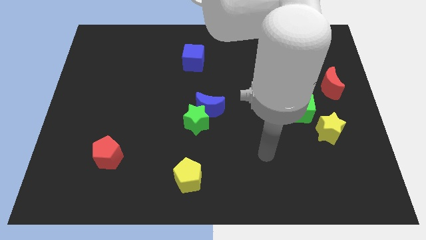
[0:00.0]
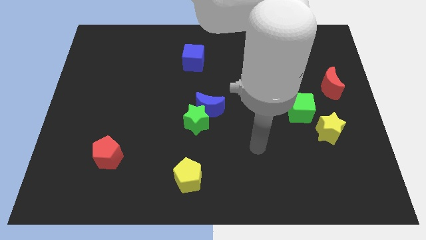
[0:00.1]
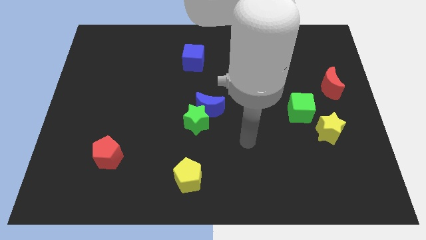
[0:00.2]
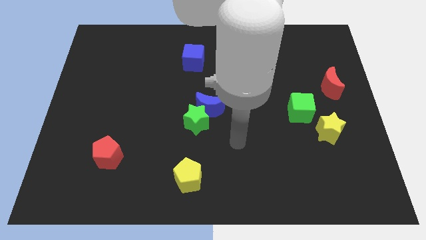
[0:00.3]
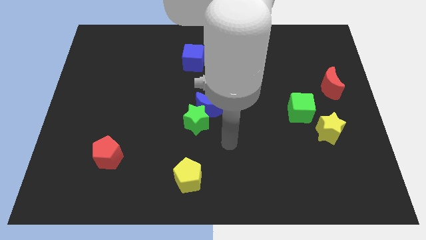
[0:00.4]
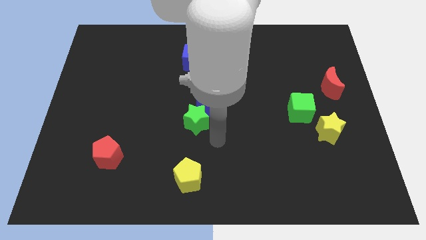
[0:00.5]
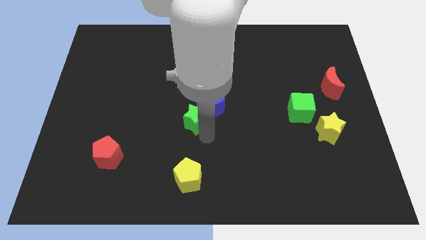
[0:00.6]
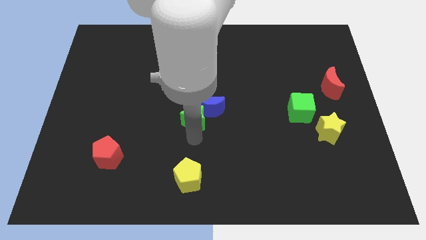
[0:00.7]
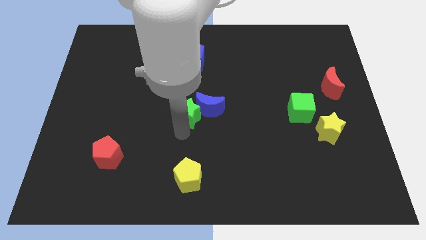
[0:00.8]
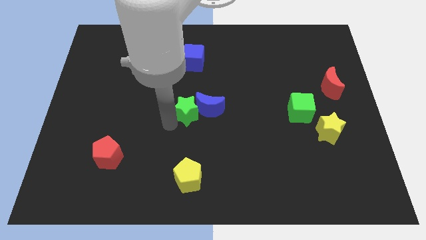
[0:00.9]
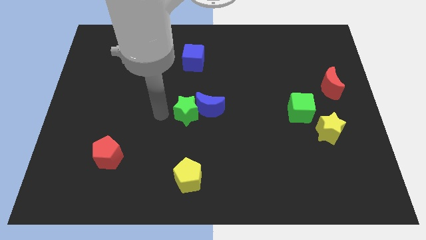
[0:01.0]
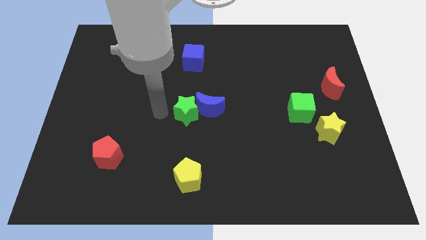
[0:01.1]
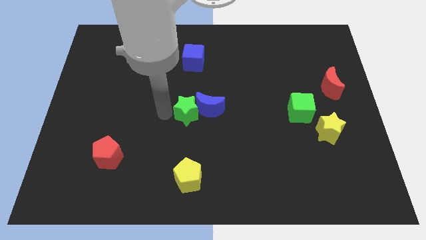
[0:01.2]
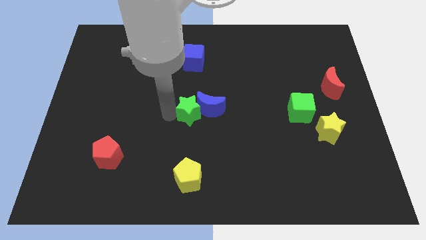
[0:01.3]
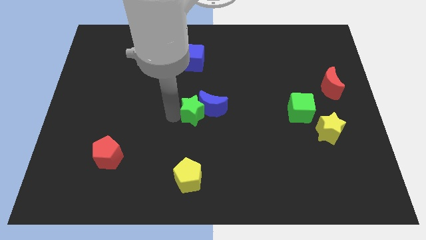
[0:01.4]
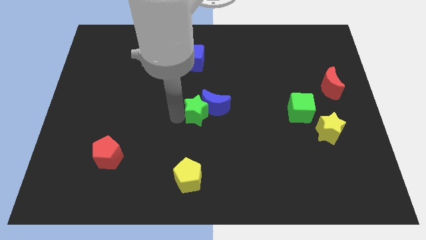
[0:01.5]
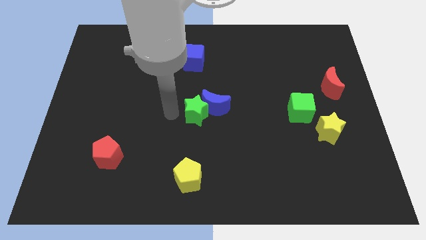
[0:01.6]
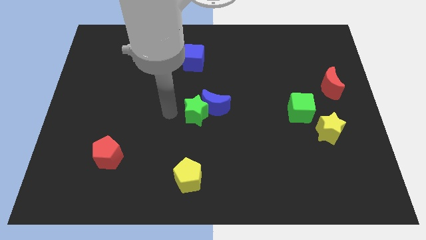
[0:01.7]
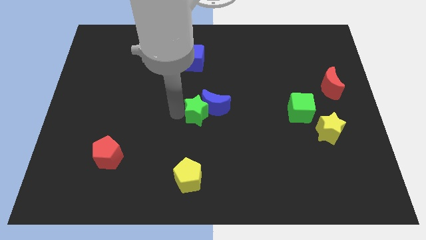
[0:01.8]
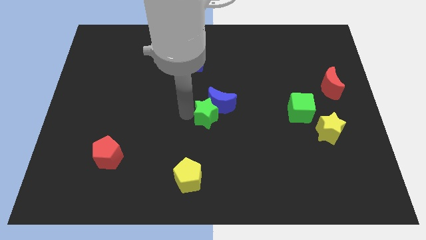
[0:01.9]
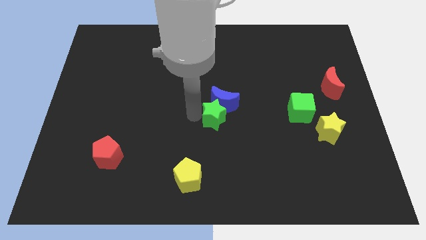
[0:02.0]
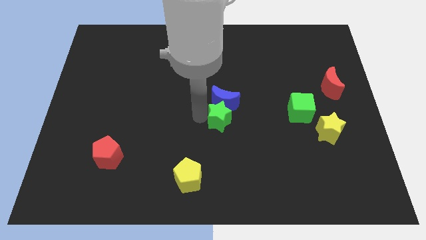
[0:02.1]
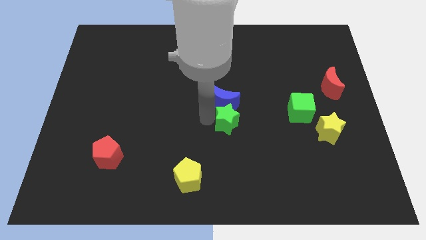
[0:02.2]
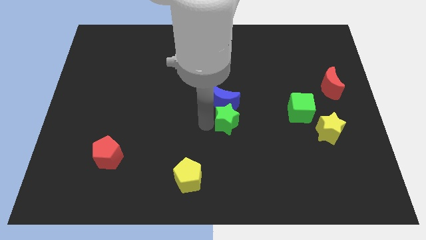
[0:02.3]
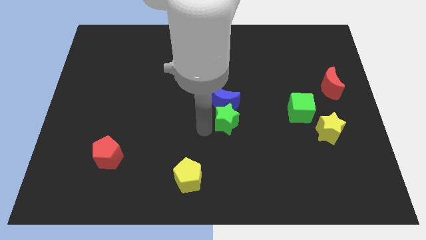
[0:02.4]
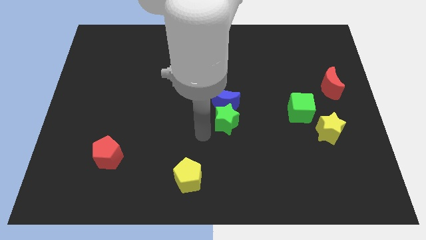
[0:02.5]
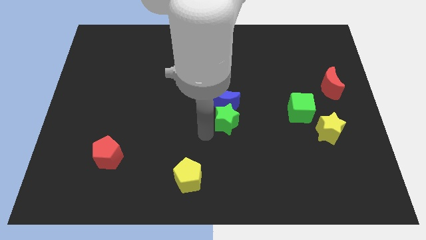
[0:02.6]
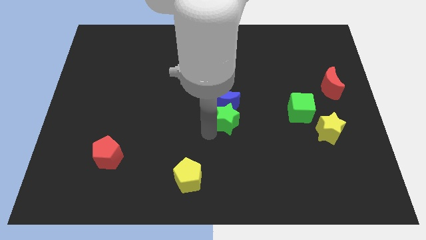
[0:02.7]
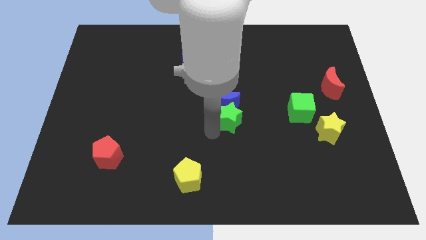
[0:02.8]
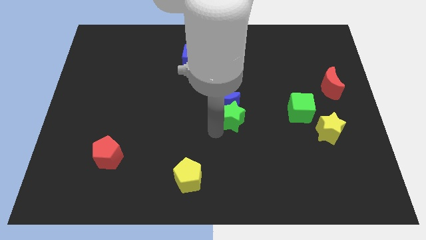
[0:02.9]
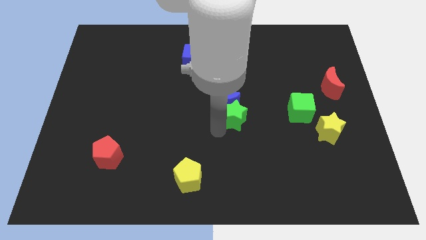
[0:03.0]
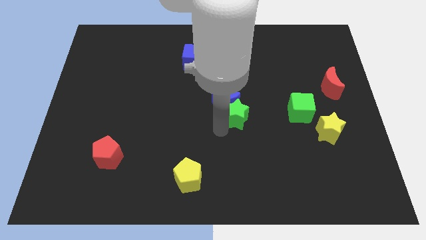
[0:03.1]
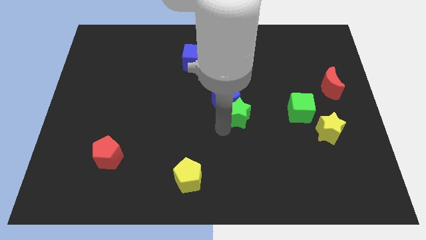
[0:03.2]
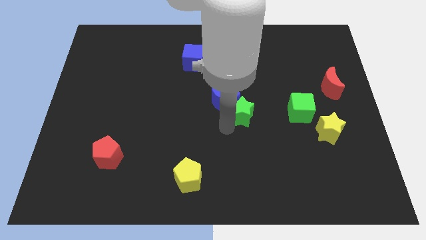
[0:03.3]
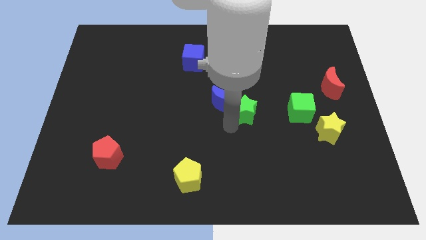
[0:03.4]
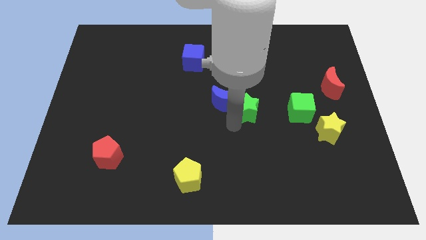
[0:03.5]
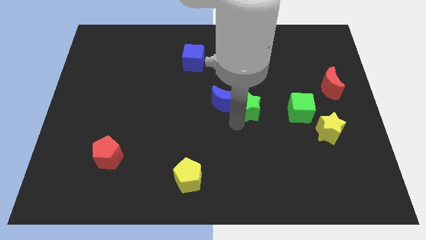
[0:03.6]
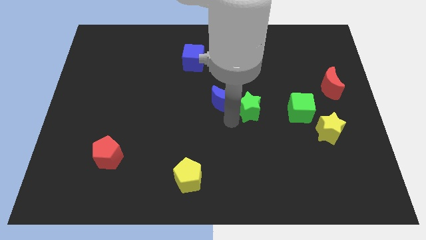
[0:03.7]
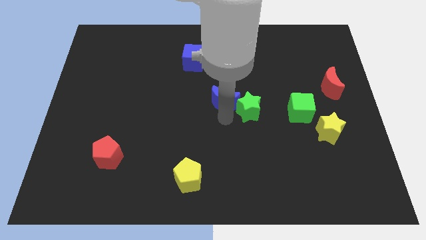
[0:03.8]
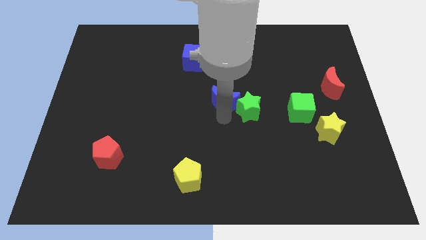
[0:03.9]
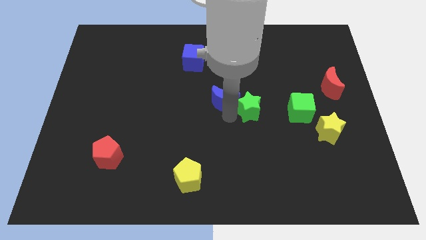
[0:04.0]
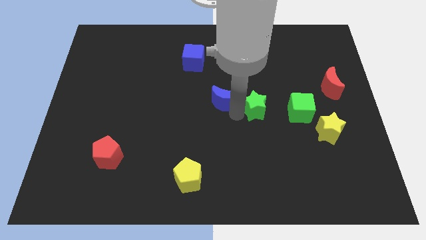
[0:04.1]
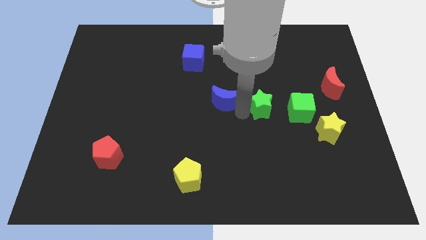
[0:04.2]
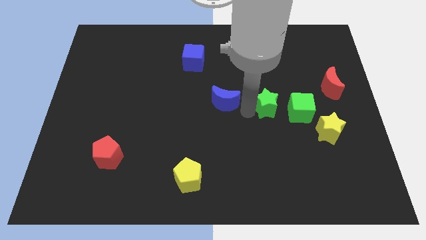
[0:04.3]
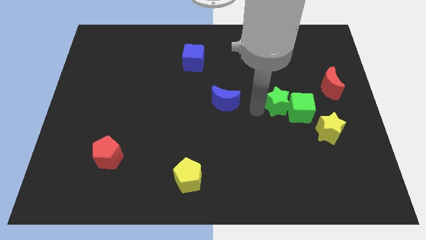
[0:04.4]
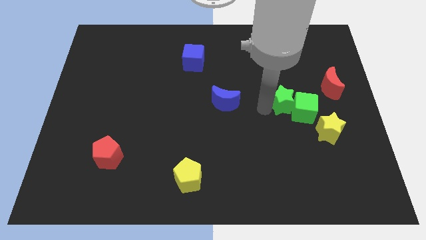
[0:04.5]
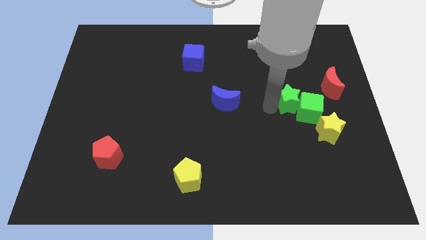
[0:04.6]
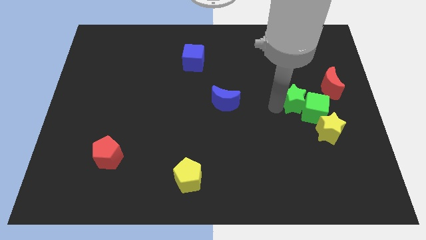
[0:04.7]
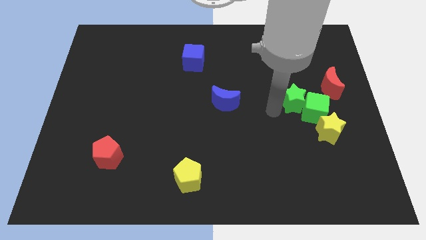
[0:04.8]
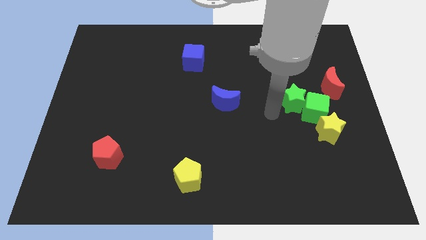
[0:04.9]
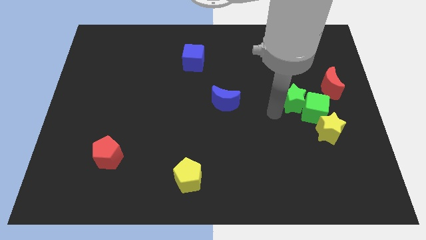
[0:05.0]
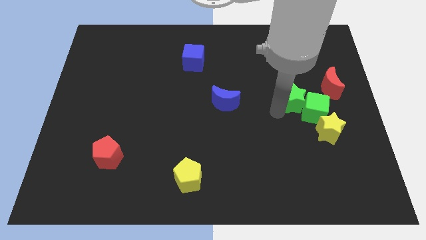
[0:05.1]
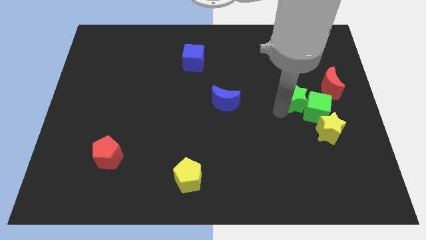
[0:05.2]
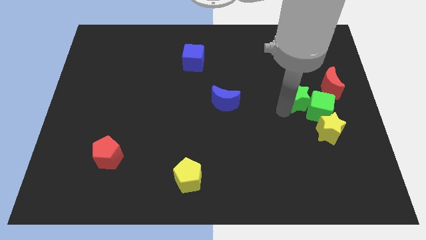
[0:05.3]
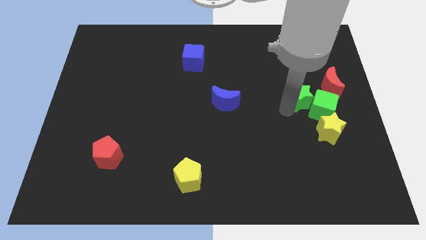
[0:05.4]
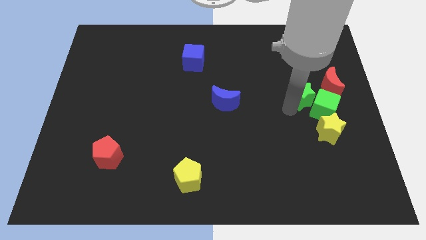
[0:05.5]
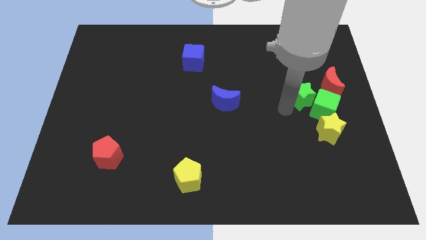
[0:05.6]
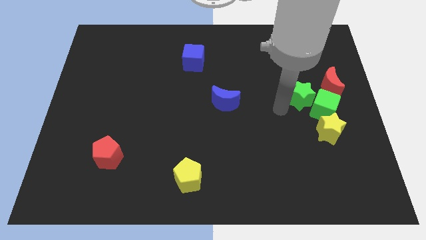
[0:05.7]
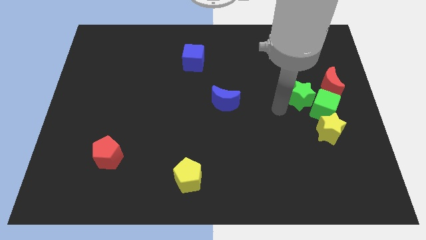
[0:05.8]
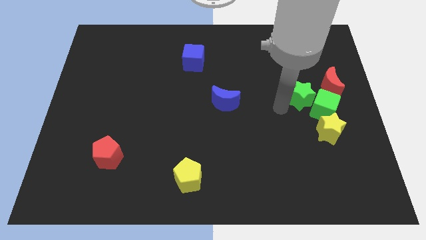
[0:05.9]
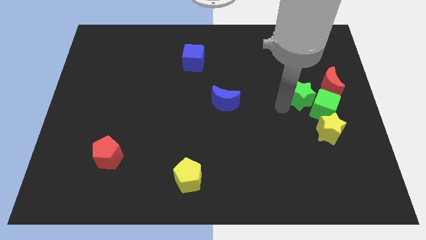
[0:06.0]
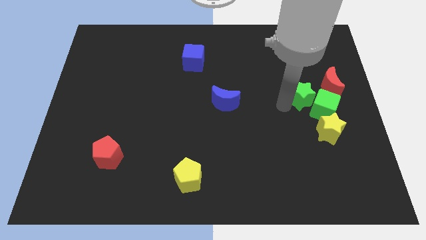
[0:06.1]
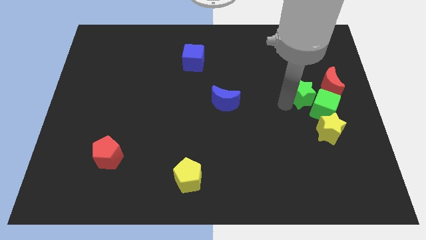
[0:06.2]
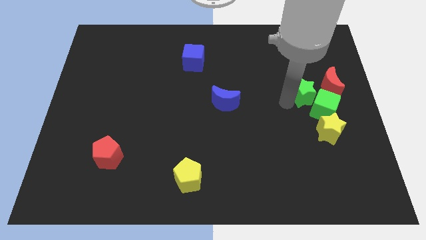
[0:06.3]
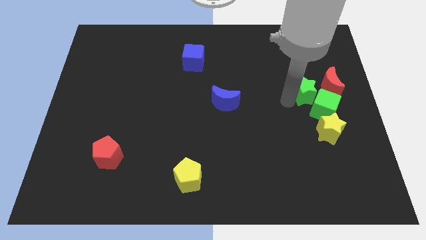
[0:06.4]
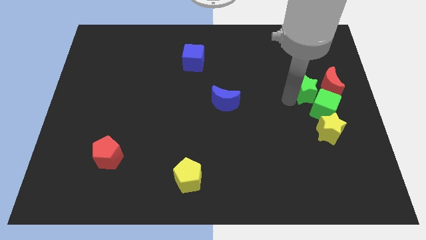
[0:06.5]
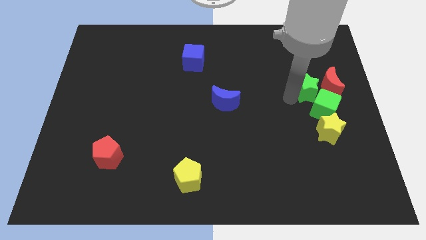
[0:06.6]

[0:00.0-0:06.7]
put the green star close to the red moon
